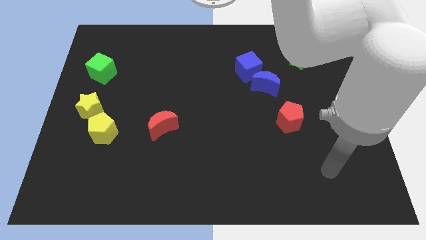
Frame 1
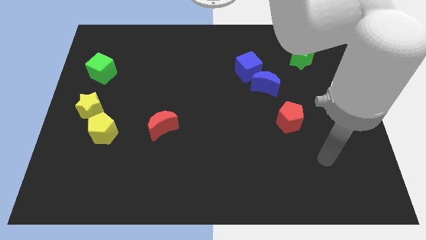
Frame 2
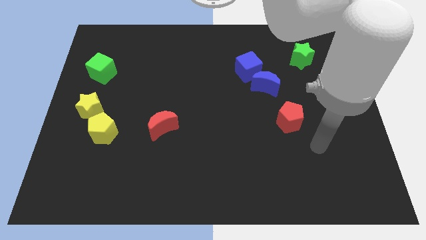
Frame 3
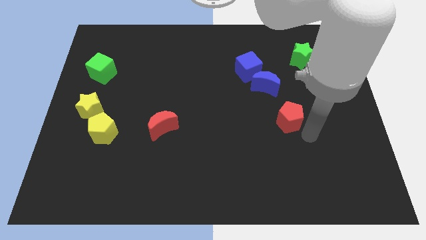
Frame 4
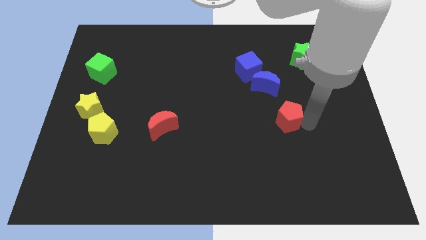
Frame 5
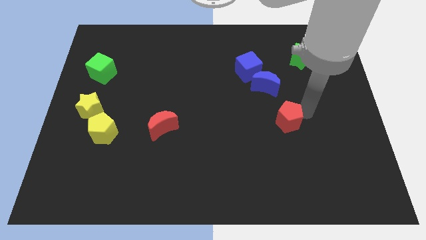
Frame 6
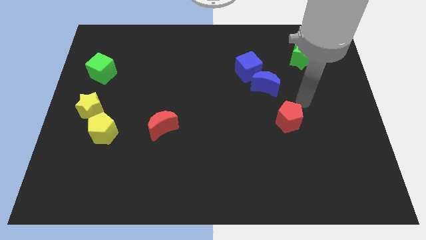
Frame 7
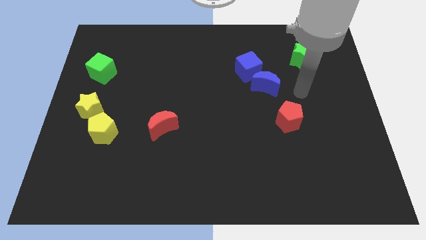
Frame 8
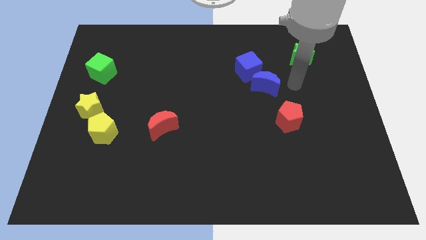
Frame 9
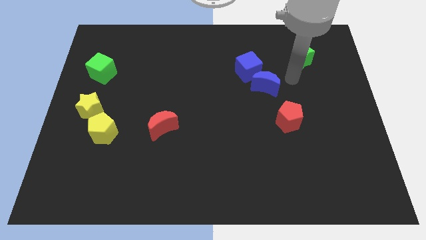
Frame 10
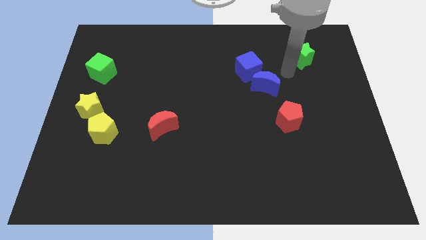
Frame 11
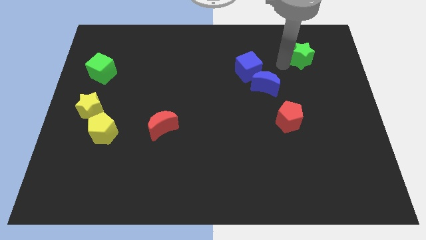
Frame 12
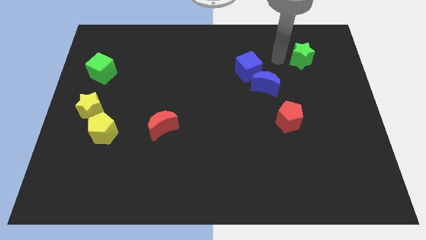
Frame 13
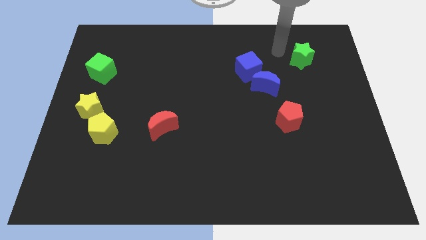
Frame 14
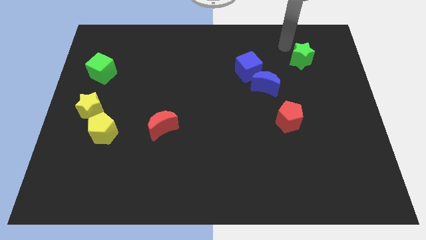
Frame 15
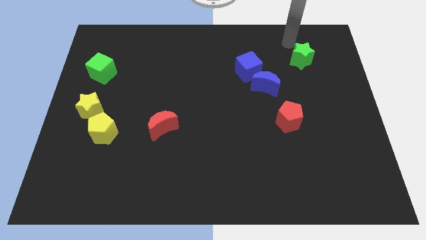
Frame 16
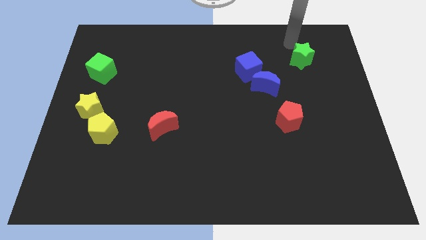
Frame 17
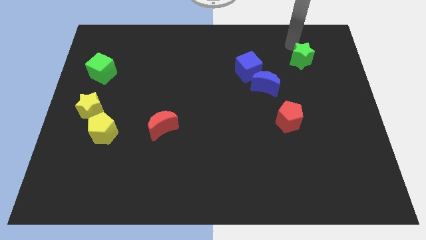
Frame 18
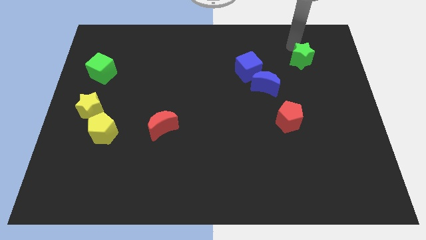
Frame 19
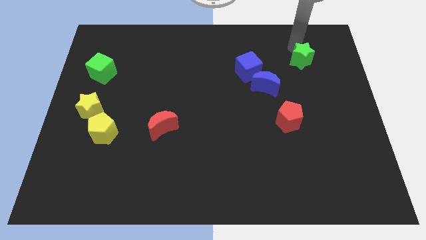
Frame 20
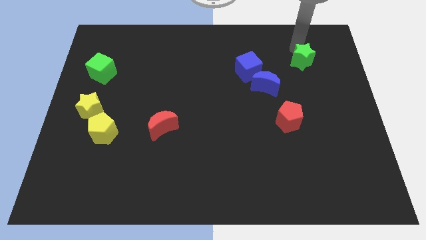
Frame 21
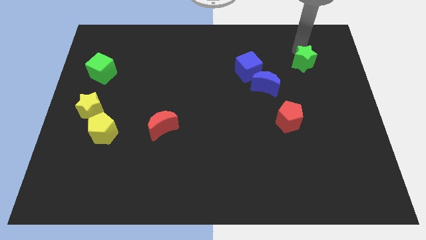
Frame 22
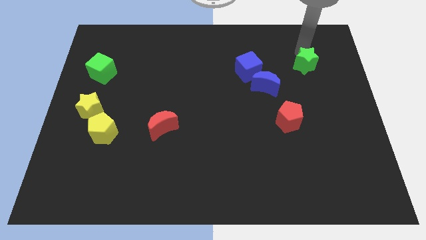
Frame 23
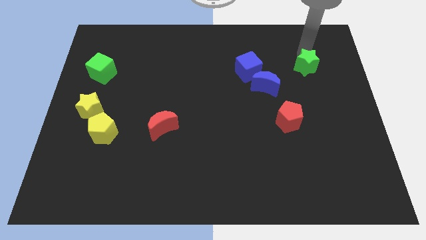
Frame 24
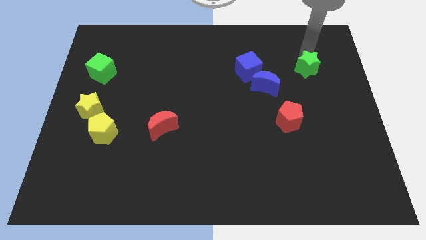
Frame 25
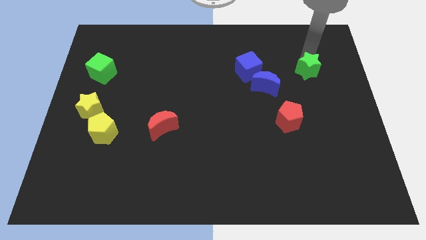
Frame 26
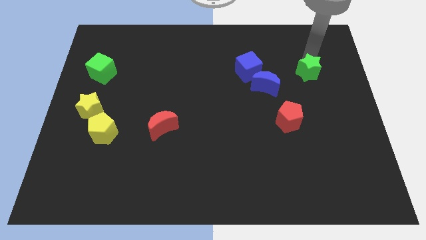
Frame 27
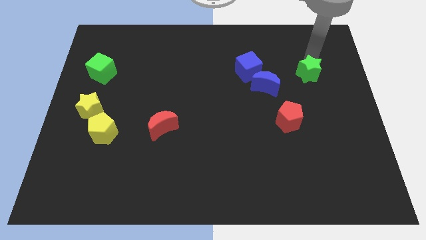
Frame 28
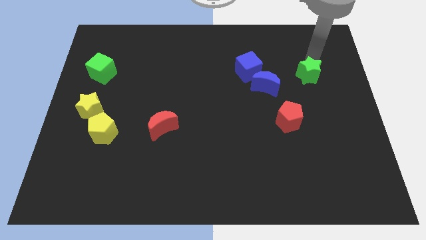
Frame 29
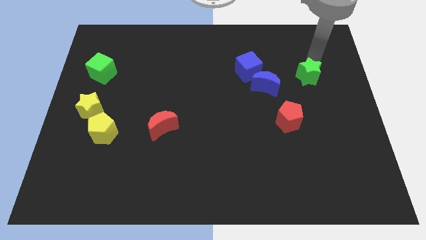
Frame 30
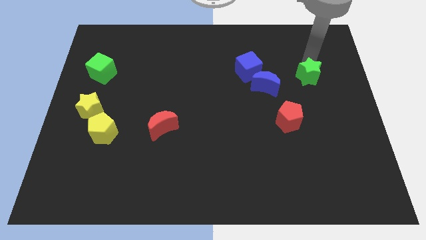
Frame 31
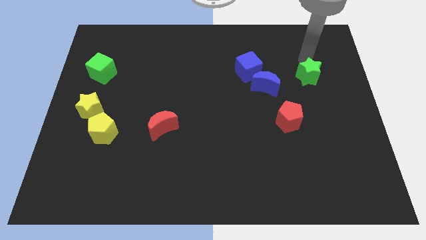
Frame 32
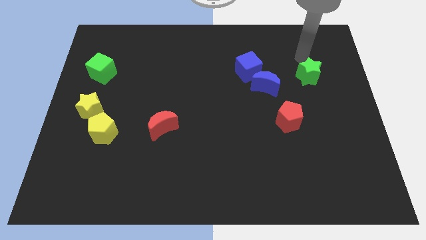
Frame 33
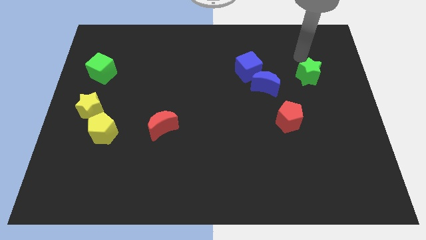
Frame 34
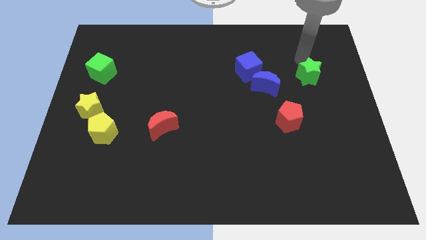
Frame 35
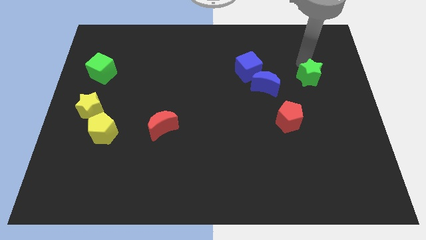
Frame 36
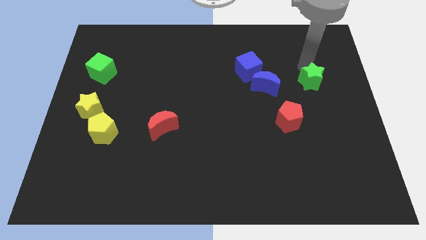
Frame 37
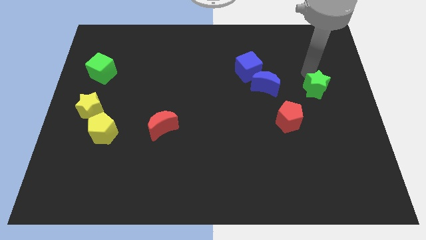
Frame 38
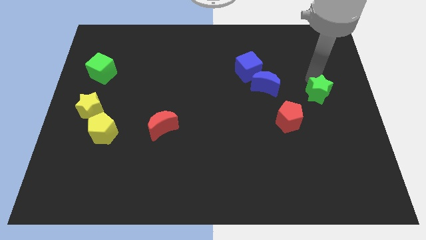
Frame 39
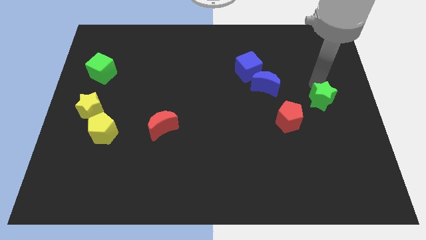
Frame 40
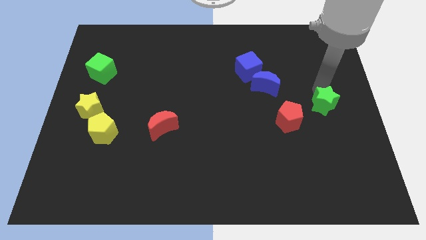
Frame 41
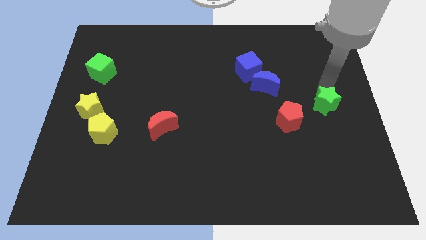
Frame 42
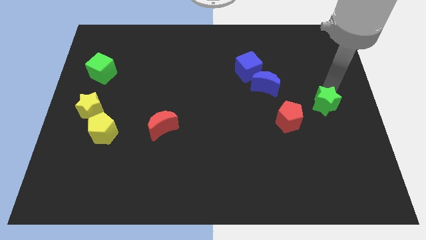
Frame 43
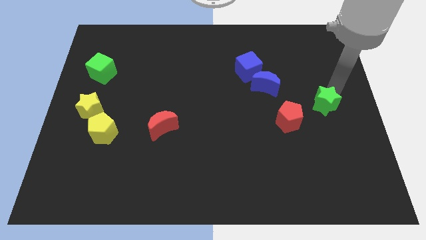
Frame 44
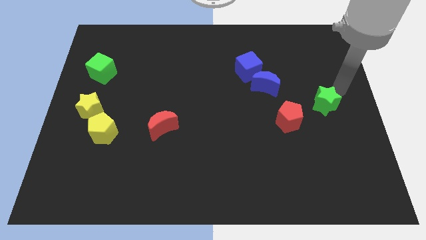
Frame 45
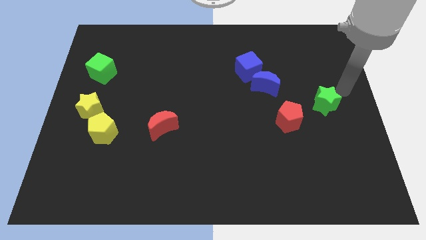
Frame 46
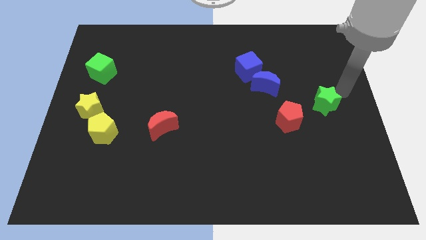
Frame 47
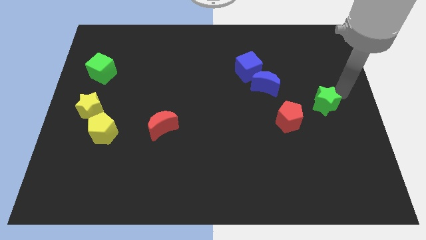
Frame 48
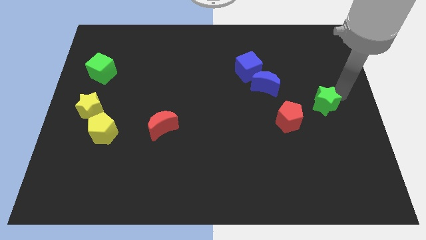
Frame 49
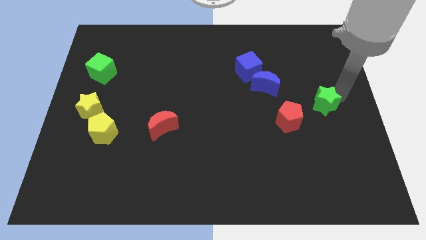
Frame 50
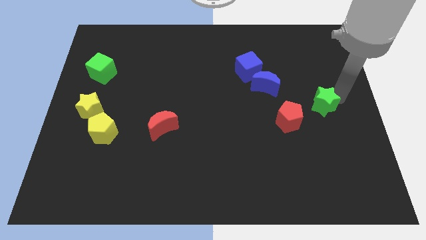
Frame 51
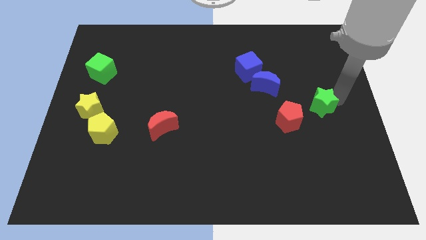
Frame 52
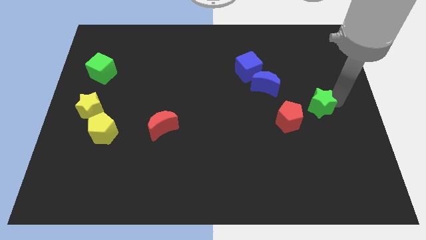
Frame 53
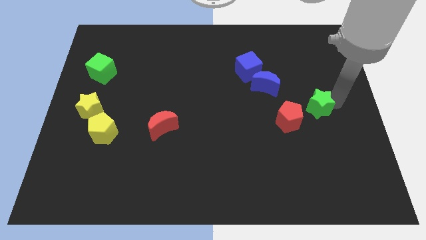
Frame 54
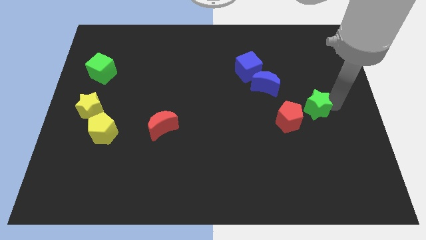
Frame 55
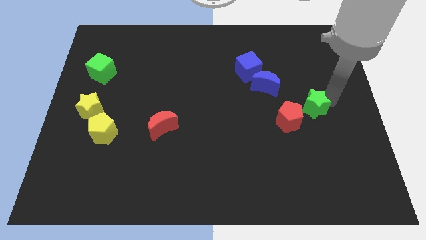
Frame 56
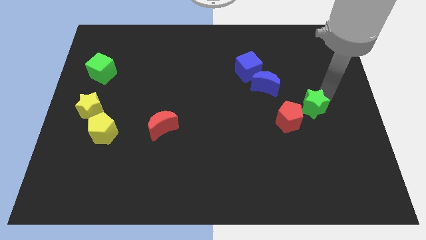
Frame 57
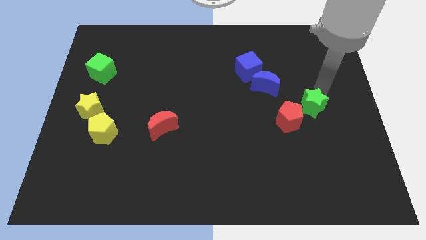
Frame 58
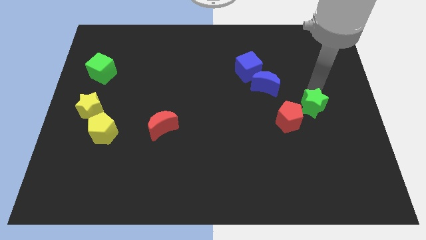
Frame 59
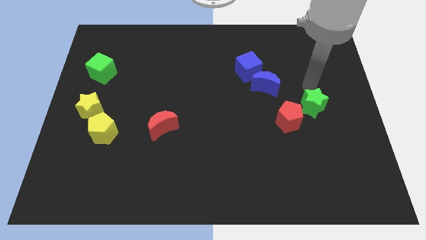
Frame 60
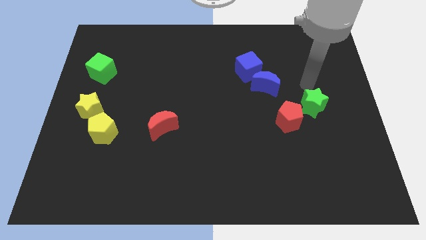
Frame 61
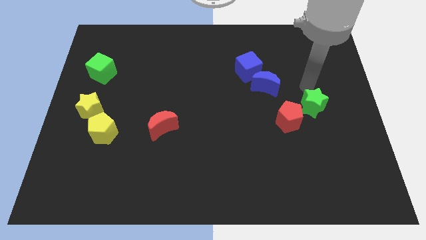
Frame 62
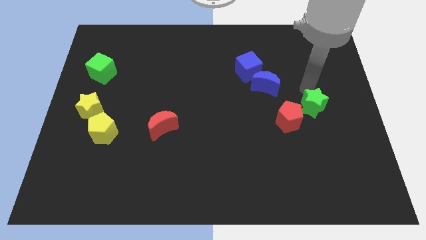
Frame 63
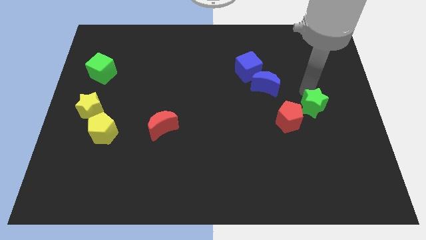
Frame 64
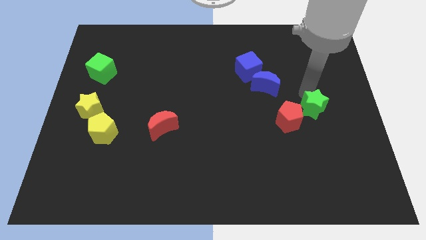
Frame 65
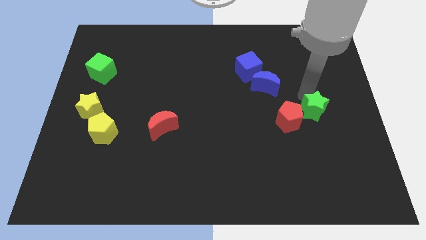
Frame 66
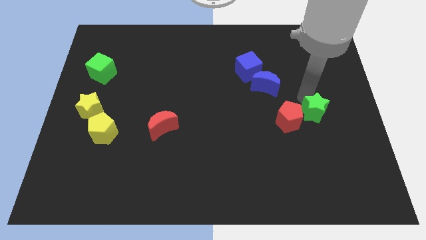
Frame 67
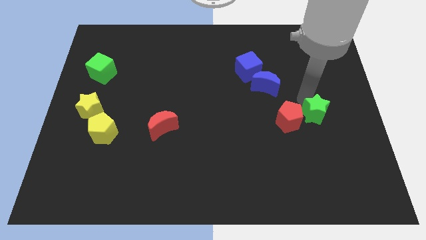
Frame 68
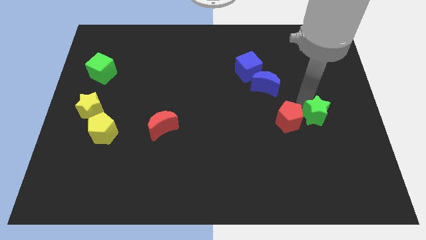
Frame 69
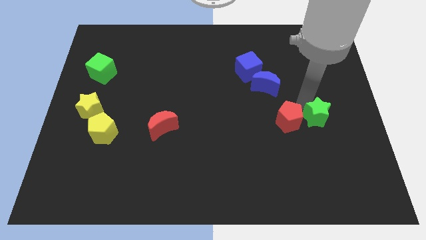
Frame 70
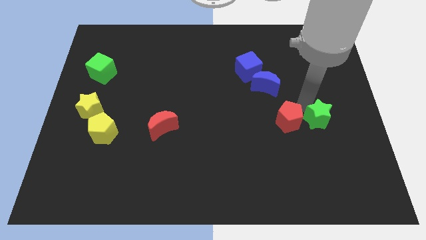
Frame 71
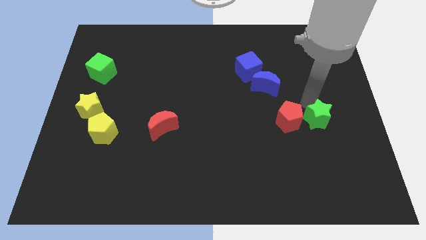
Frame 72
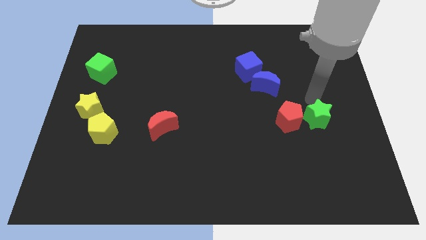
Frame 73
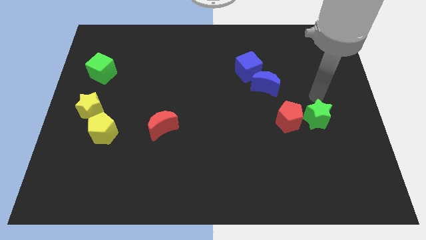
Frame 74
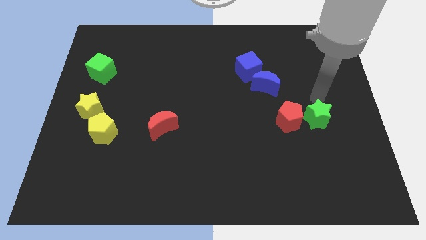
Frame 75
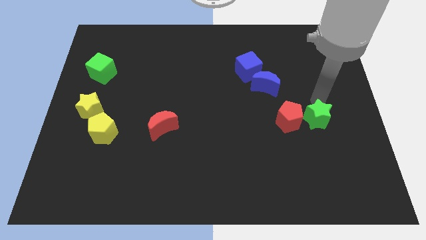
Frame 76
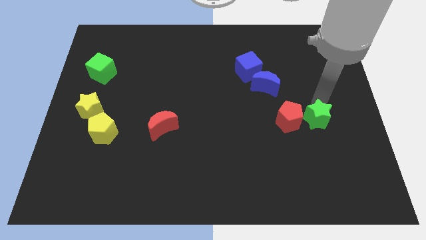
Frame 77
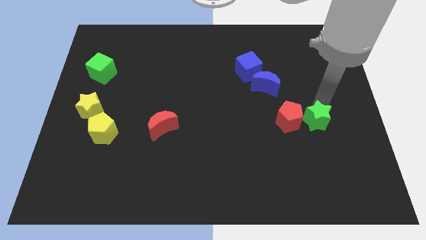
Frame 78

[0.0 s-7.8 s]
move the green star down

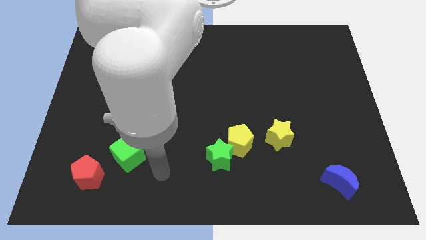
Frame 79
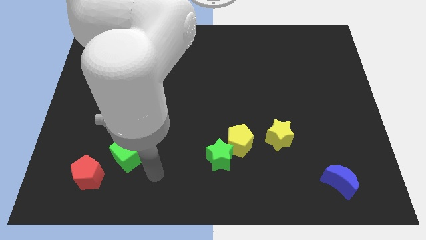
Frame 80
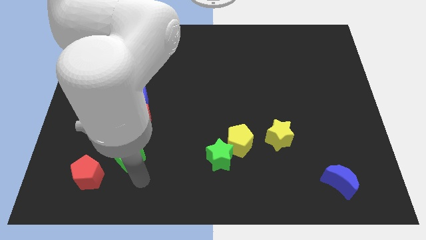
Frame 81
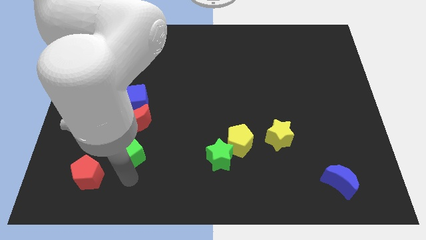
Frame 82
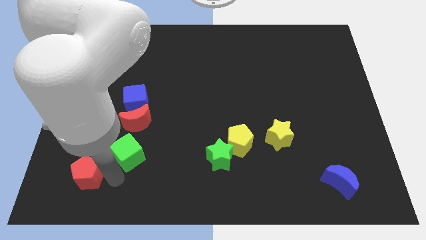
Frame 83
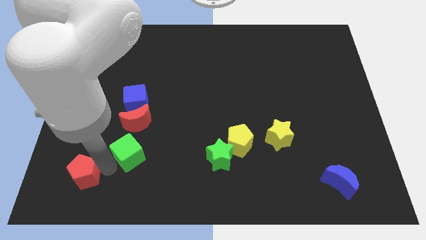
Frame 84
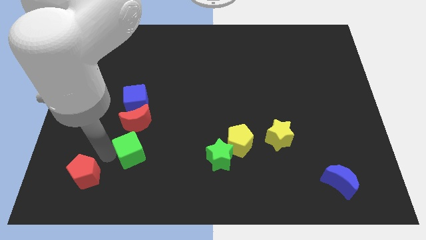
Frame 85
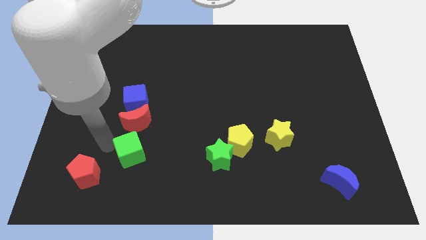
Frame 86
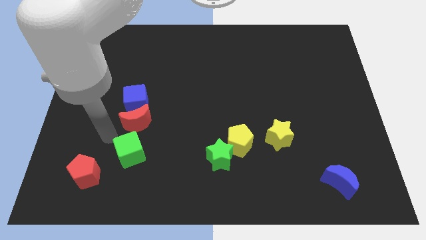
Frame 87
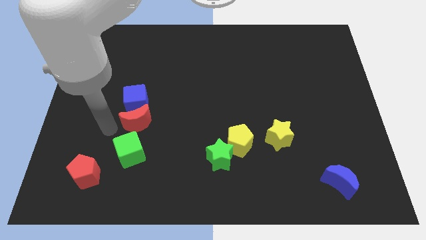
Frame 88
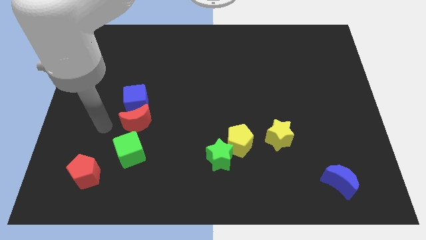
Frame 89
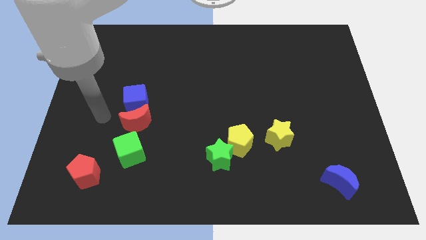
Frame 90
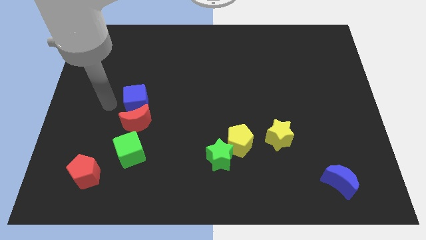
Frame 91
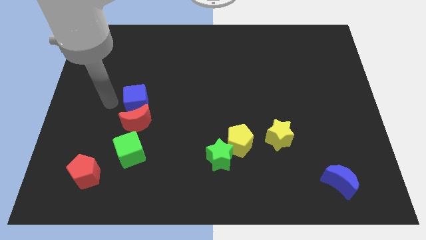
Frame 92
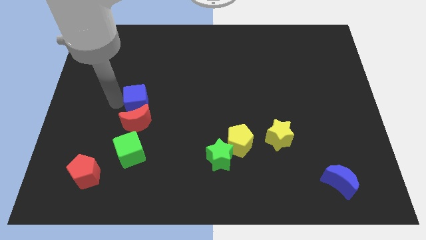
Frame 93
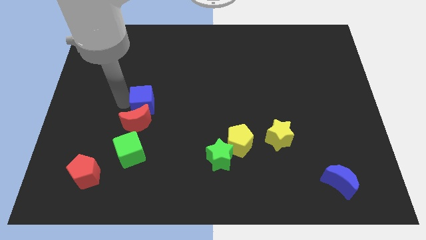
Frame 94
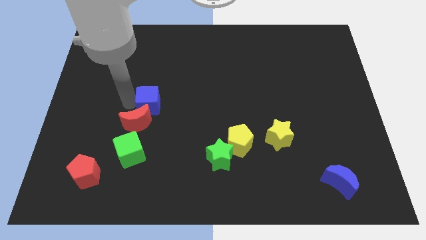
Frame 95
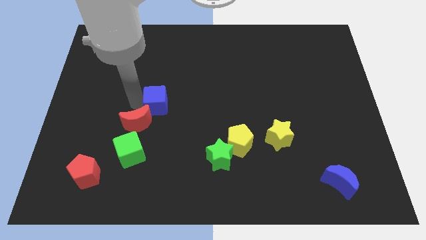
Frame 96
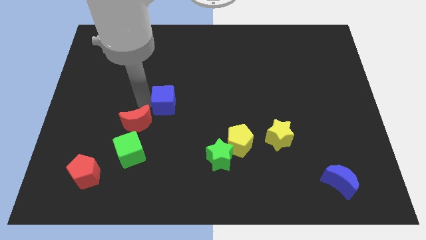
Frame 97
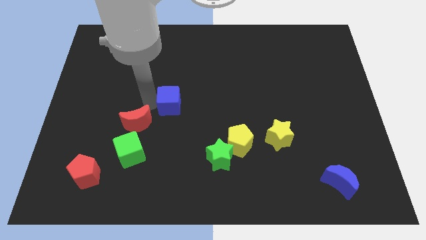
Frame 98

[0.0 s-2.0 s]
move the blue cube a little to the right
